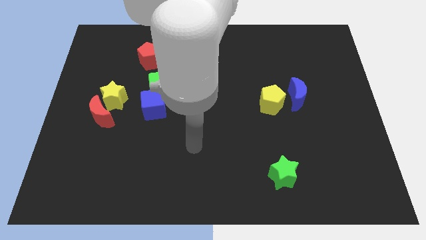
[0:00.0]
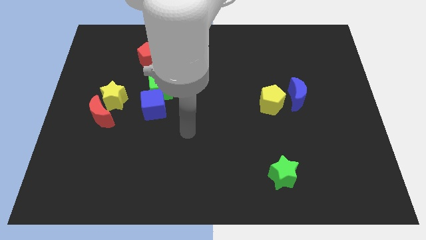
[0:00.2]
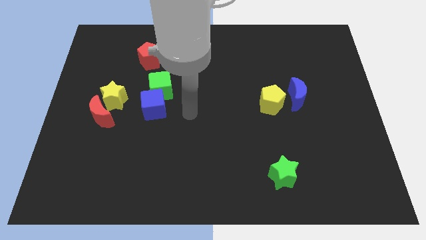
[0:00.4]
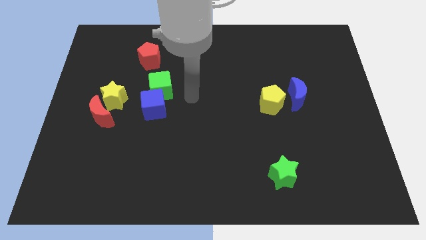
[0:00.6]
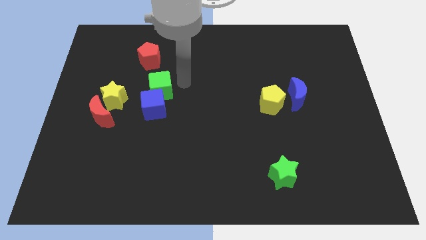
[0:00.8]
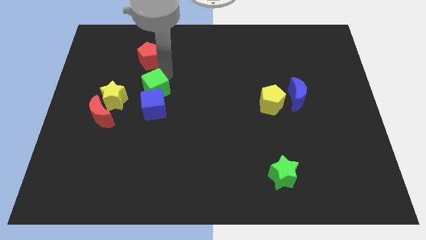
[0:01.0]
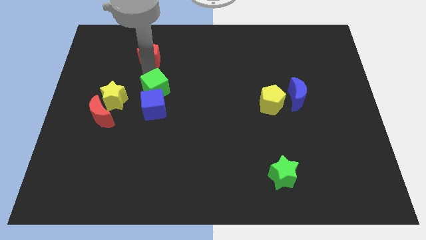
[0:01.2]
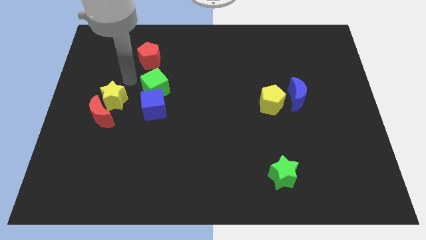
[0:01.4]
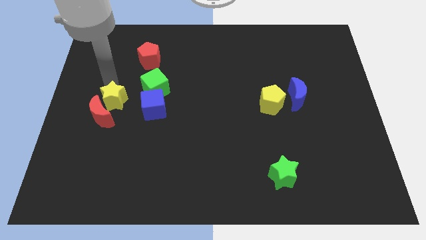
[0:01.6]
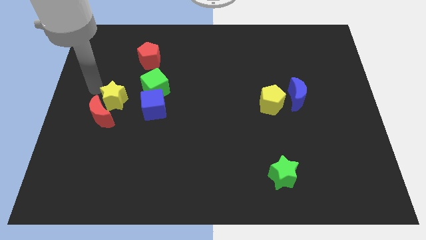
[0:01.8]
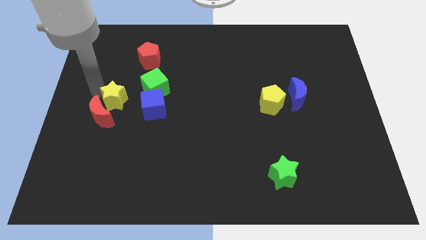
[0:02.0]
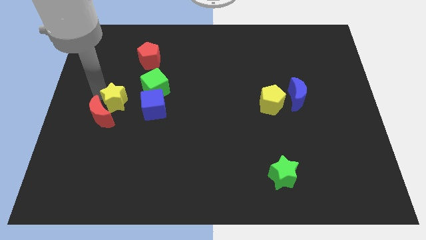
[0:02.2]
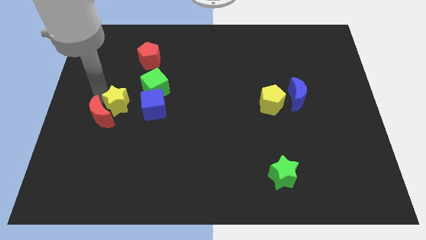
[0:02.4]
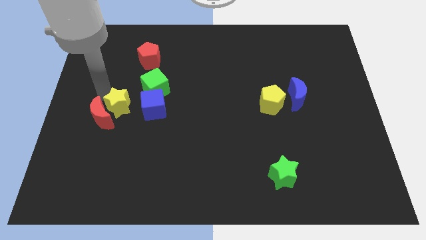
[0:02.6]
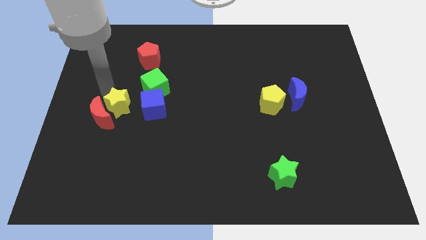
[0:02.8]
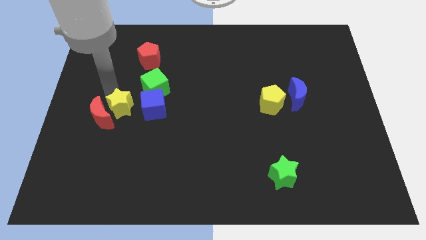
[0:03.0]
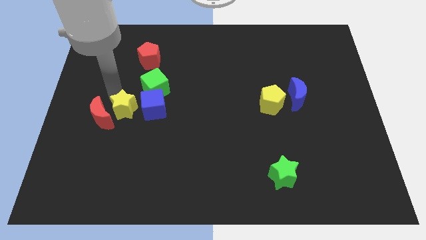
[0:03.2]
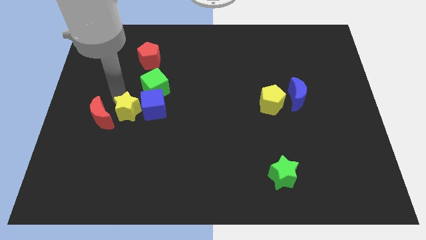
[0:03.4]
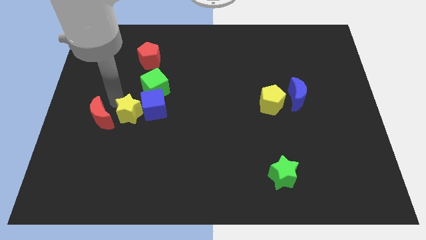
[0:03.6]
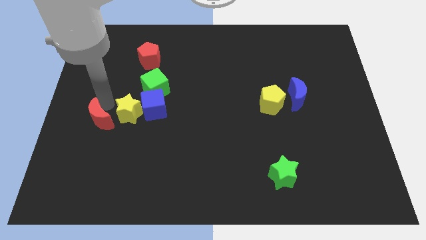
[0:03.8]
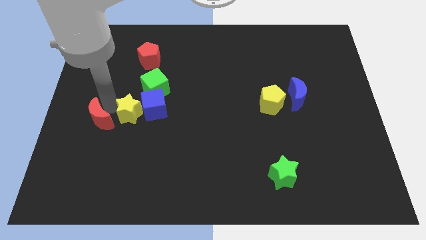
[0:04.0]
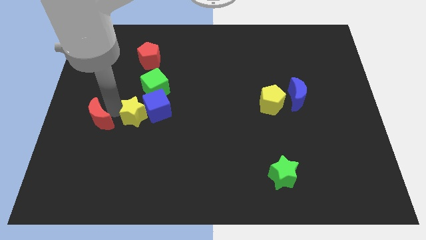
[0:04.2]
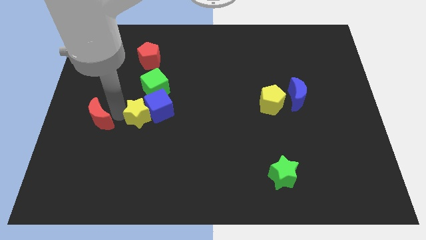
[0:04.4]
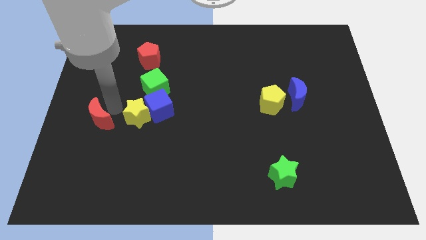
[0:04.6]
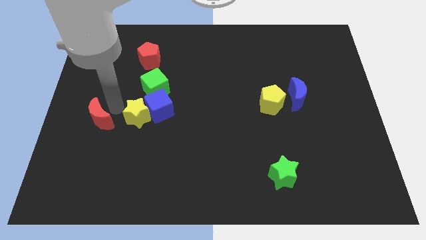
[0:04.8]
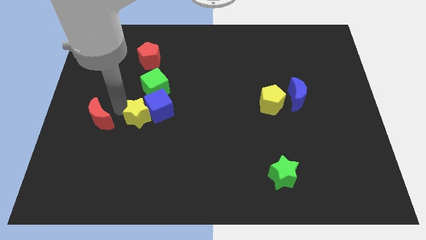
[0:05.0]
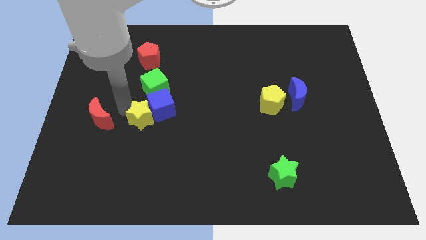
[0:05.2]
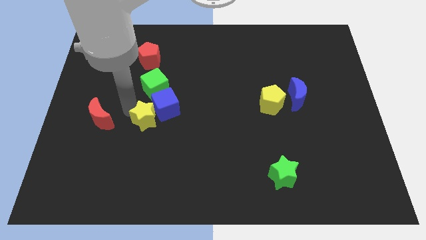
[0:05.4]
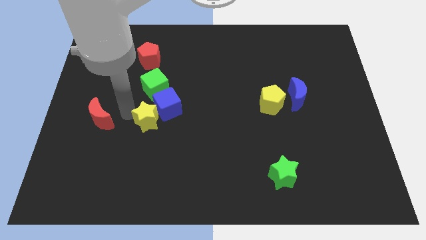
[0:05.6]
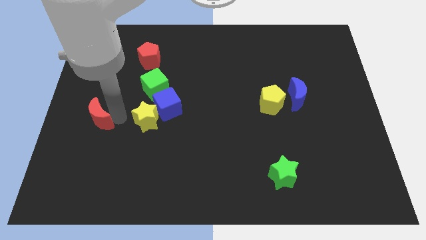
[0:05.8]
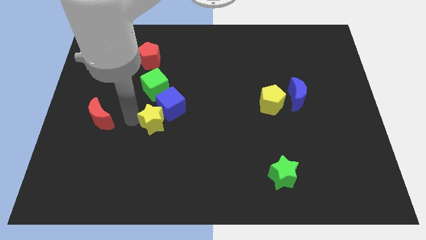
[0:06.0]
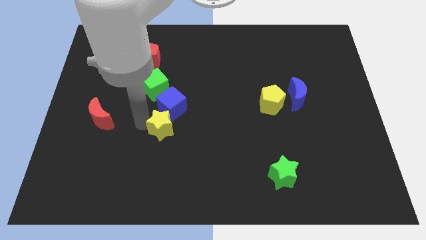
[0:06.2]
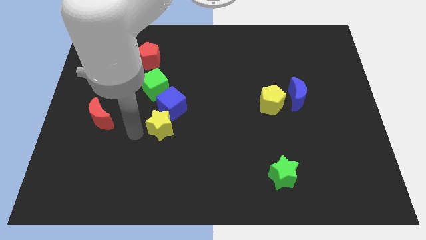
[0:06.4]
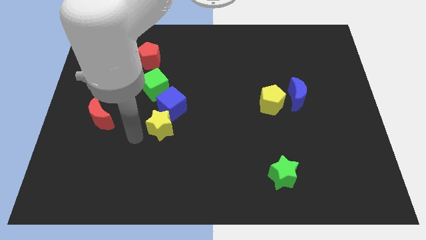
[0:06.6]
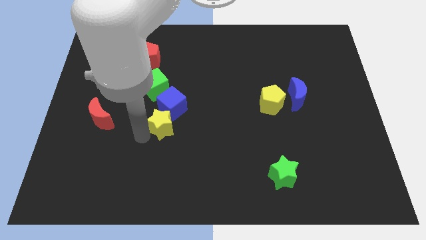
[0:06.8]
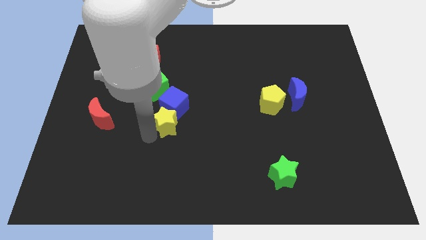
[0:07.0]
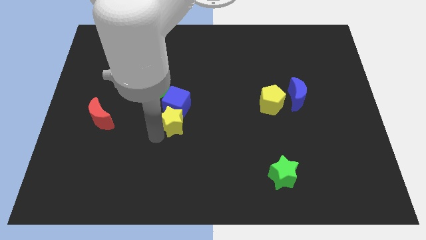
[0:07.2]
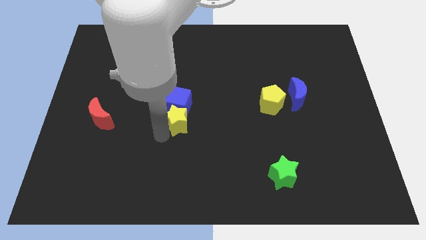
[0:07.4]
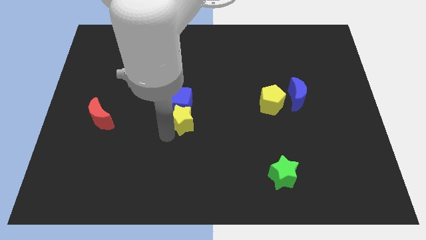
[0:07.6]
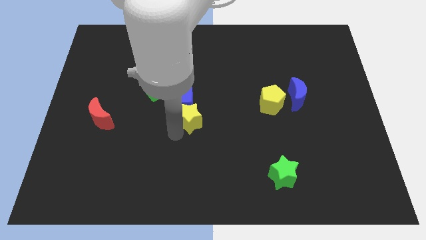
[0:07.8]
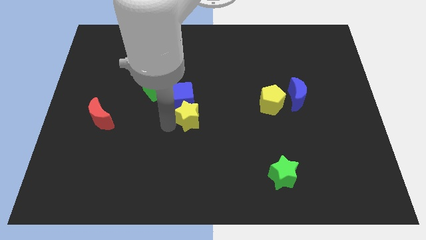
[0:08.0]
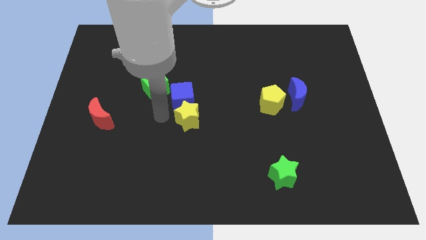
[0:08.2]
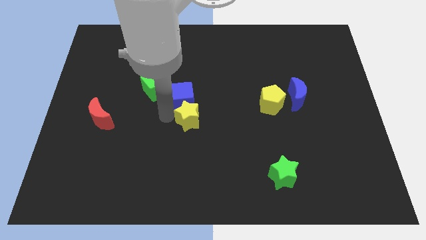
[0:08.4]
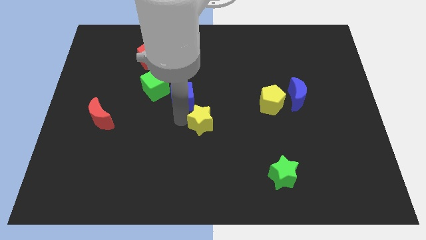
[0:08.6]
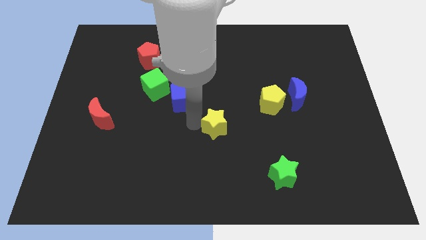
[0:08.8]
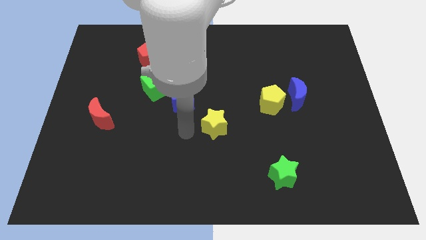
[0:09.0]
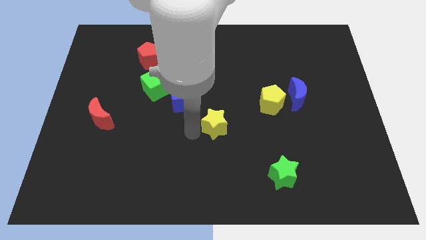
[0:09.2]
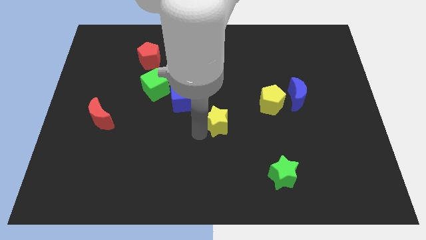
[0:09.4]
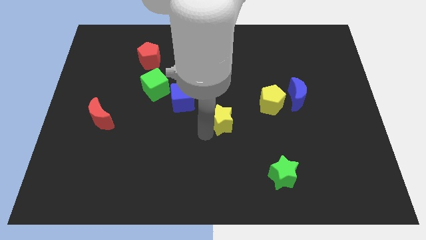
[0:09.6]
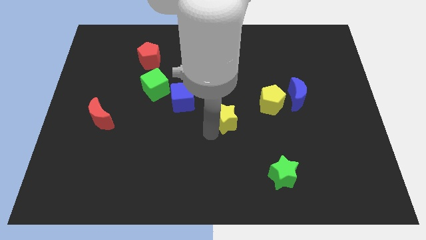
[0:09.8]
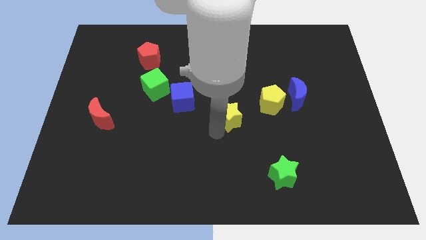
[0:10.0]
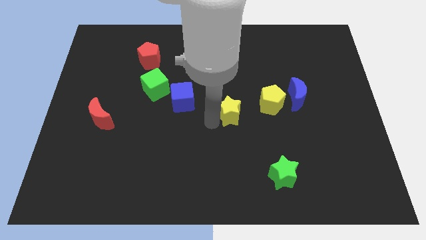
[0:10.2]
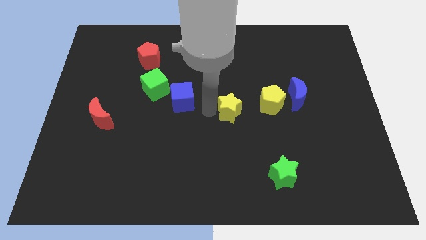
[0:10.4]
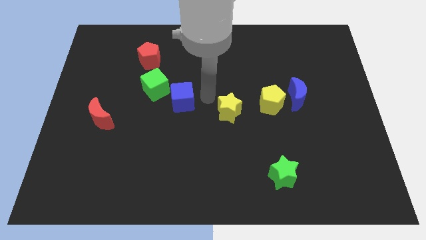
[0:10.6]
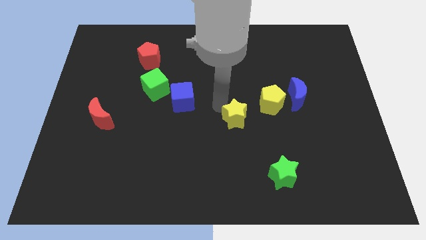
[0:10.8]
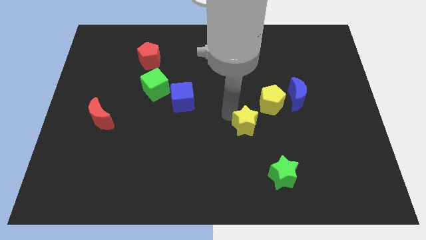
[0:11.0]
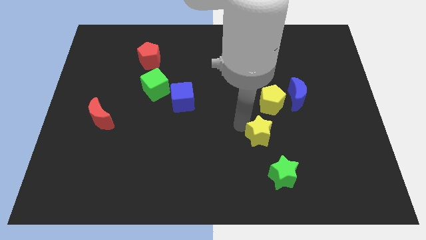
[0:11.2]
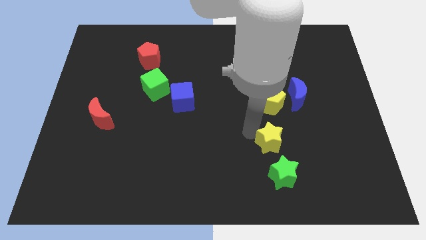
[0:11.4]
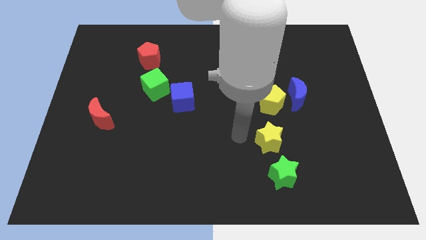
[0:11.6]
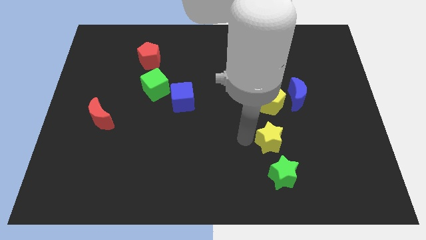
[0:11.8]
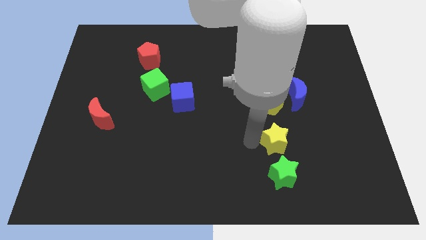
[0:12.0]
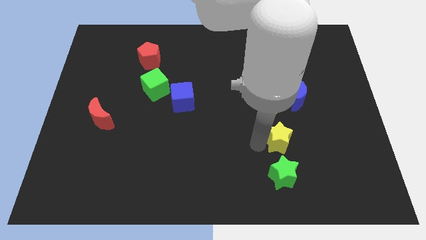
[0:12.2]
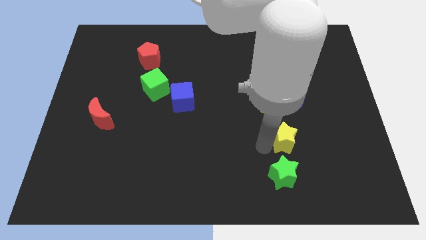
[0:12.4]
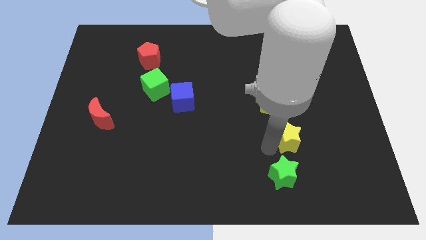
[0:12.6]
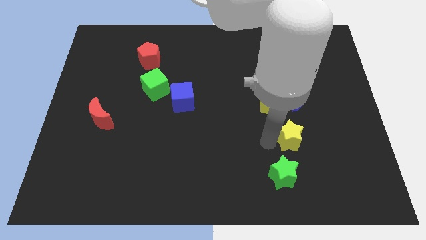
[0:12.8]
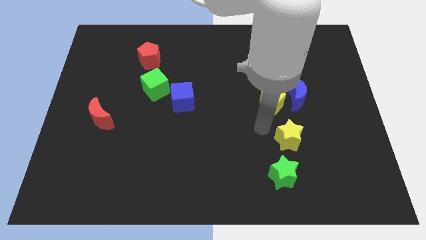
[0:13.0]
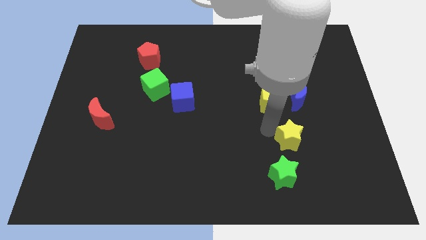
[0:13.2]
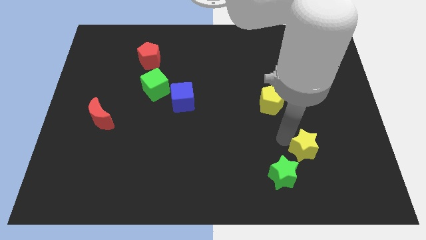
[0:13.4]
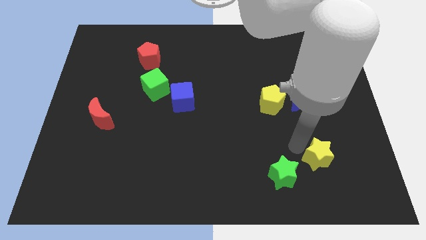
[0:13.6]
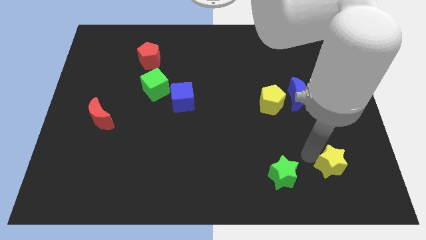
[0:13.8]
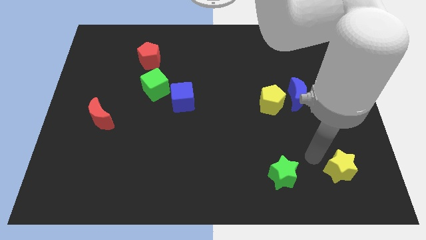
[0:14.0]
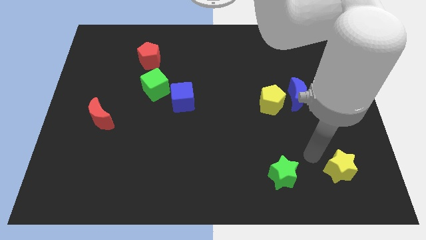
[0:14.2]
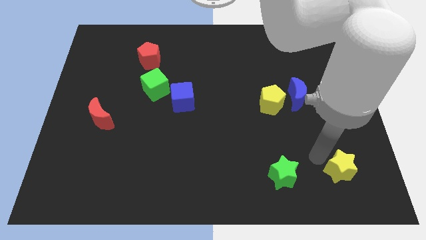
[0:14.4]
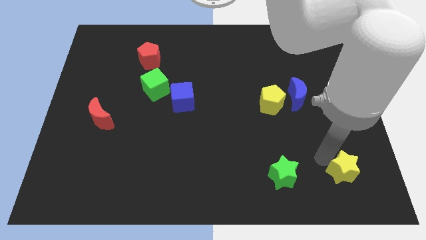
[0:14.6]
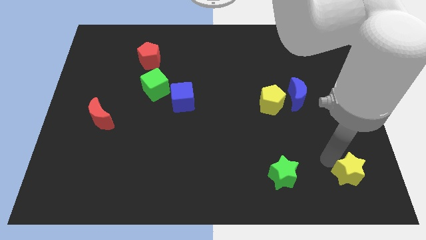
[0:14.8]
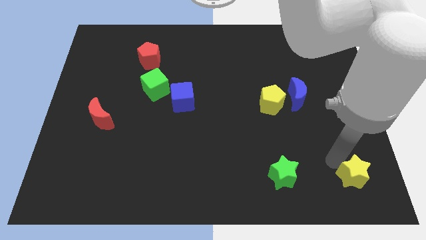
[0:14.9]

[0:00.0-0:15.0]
push the yellow star to the bottom right of the board
